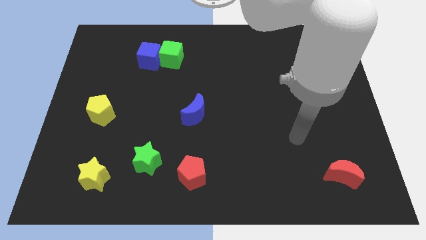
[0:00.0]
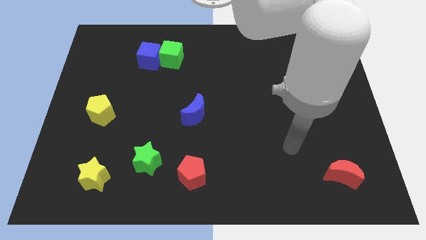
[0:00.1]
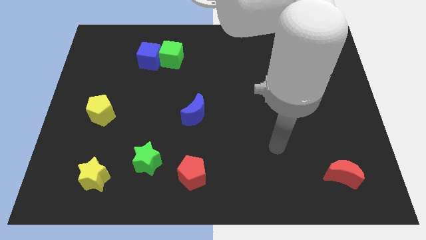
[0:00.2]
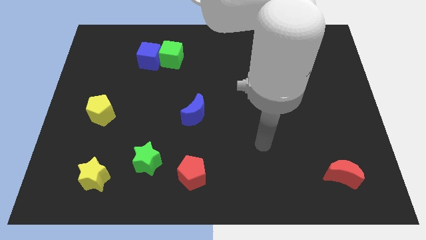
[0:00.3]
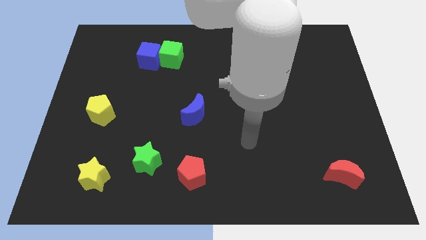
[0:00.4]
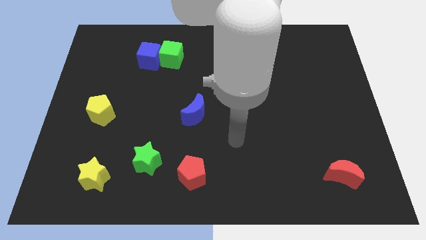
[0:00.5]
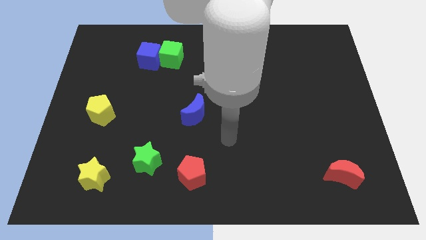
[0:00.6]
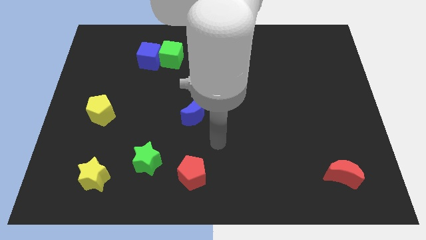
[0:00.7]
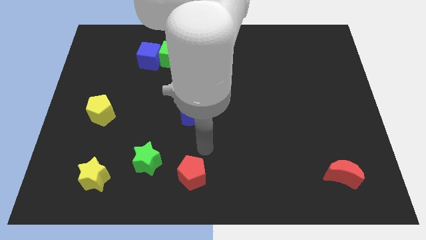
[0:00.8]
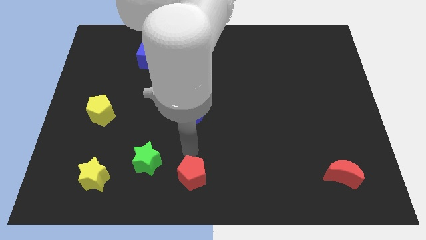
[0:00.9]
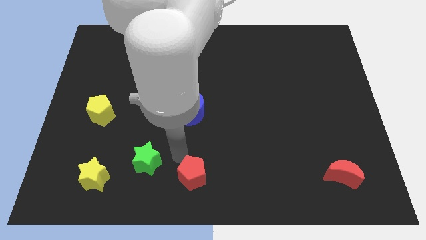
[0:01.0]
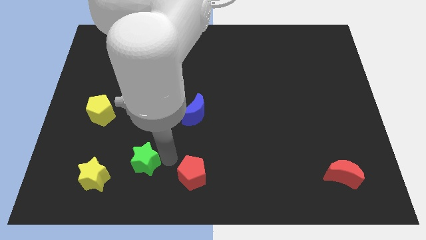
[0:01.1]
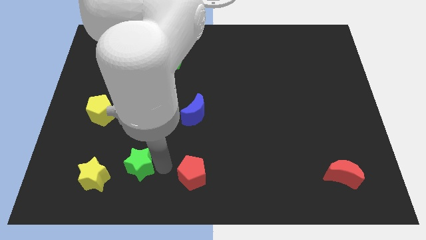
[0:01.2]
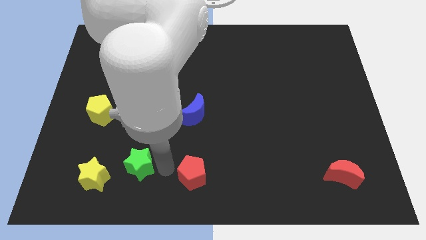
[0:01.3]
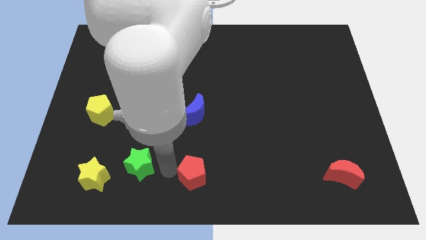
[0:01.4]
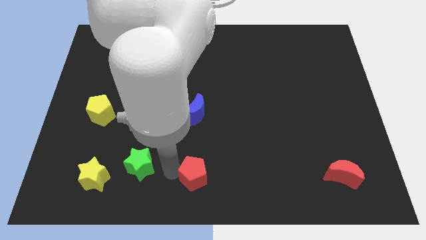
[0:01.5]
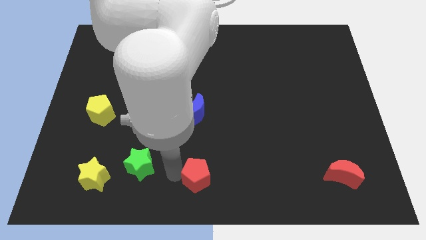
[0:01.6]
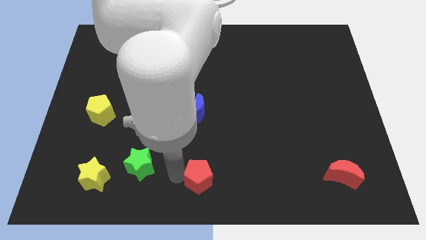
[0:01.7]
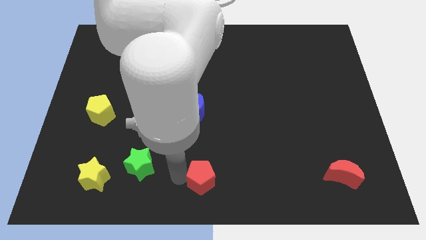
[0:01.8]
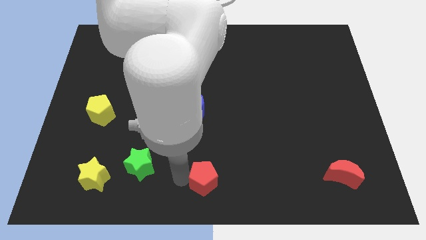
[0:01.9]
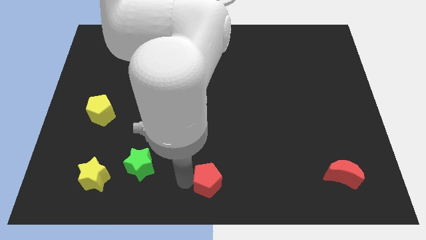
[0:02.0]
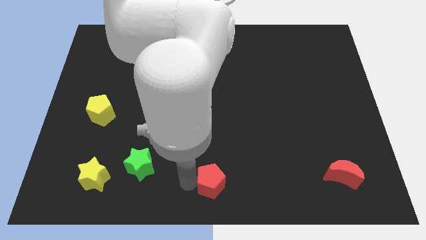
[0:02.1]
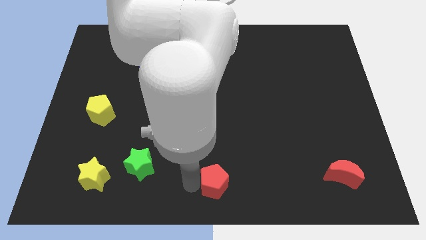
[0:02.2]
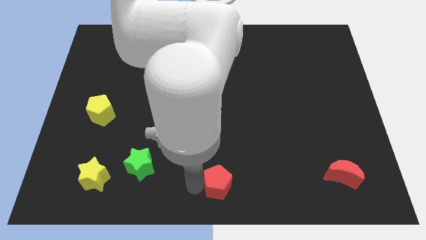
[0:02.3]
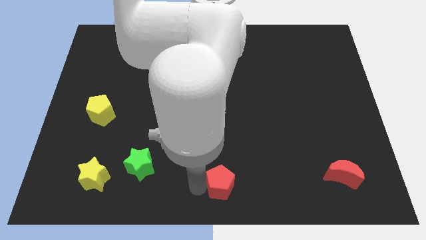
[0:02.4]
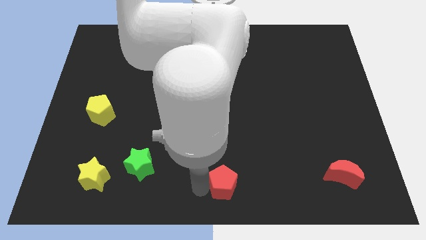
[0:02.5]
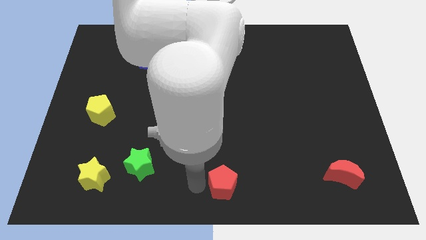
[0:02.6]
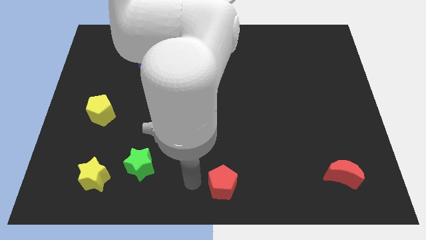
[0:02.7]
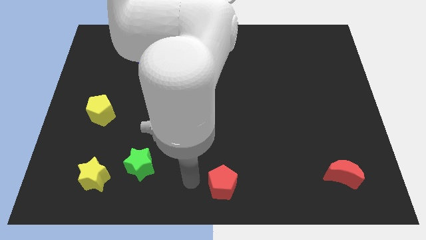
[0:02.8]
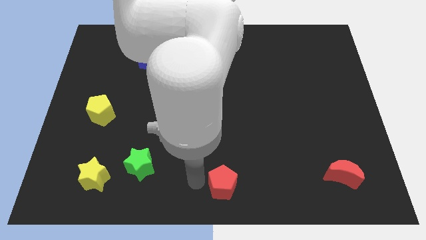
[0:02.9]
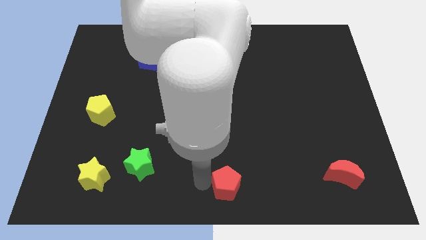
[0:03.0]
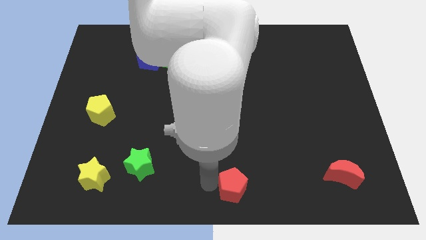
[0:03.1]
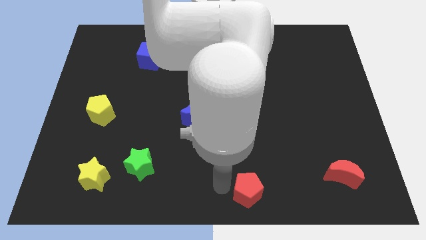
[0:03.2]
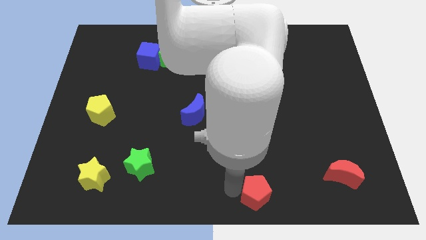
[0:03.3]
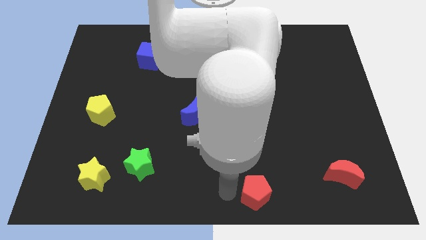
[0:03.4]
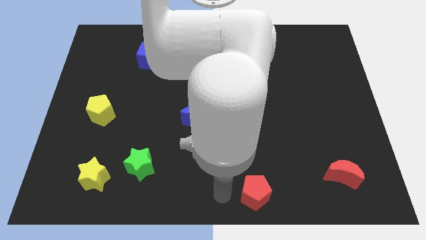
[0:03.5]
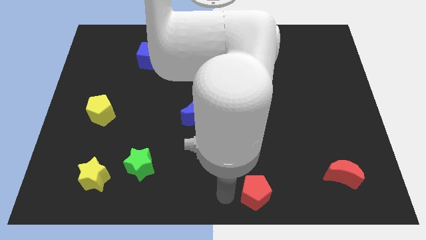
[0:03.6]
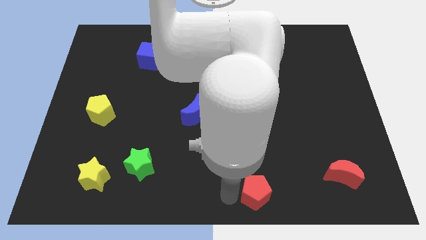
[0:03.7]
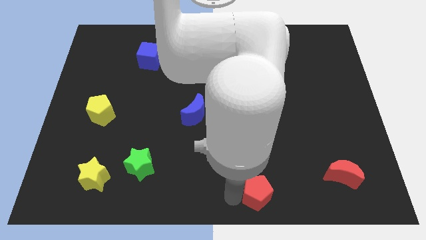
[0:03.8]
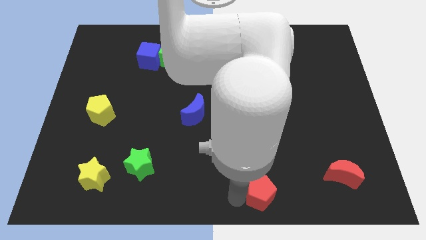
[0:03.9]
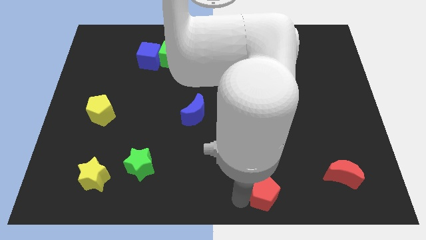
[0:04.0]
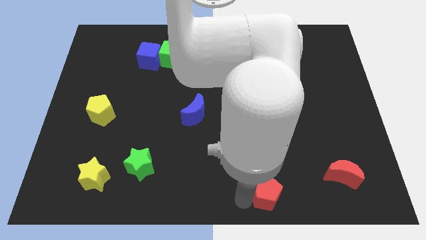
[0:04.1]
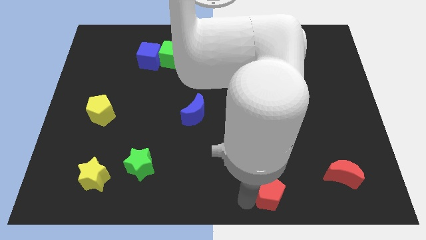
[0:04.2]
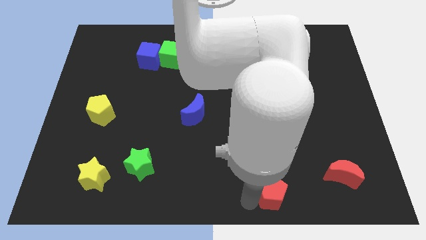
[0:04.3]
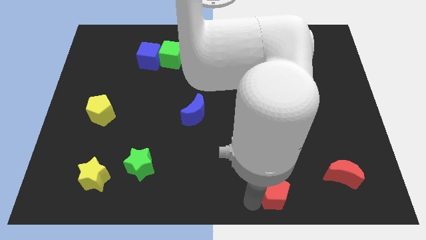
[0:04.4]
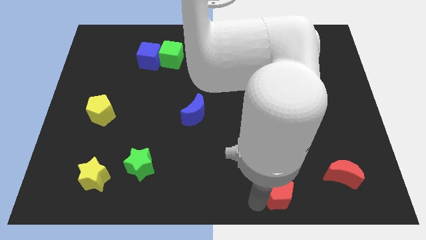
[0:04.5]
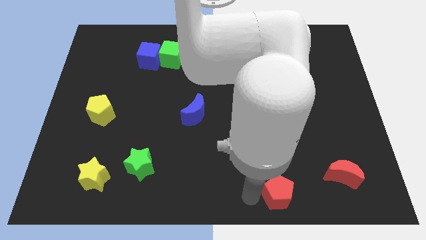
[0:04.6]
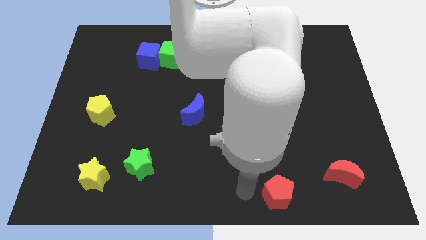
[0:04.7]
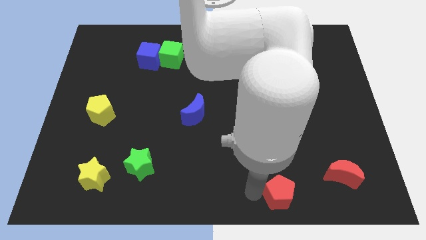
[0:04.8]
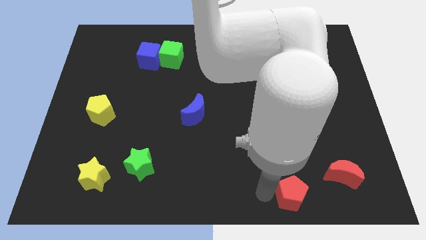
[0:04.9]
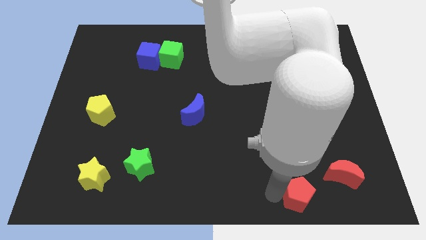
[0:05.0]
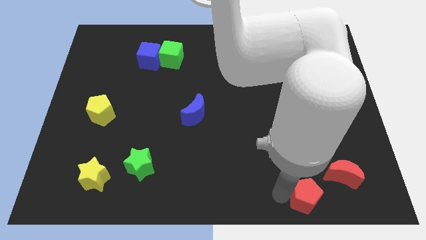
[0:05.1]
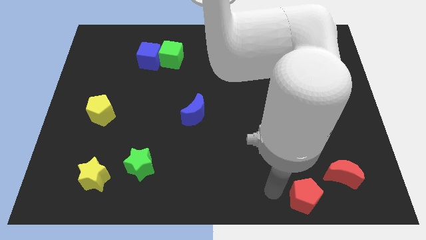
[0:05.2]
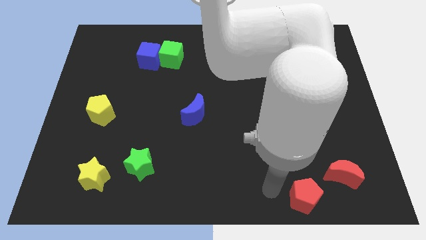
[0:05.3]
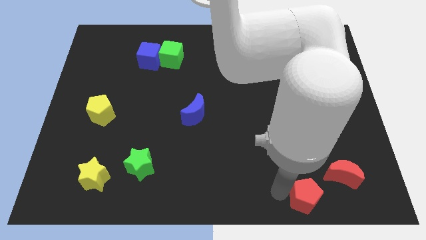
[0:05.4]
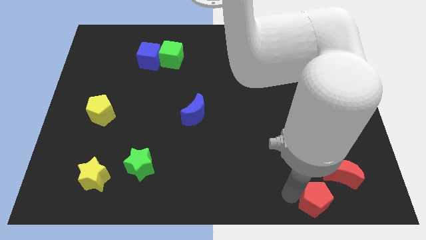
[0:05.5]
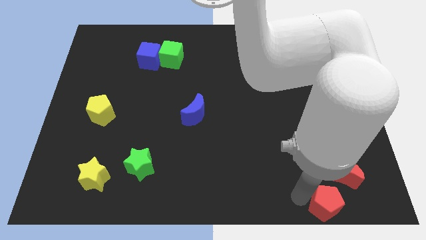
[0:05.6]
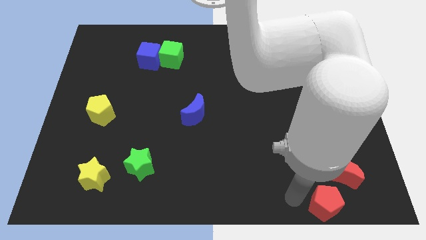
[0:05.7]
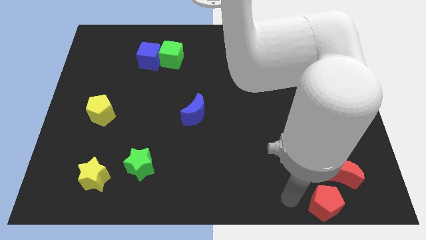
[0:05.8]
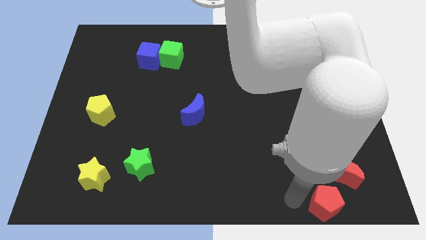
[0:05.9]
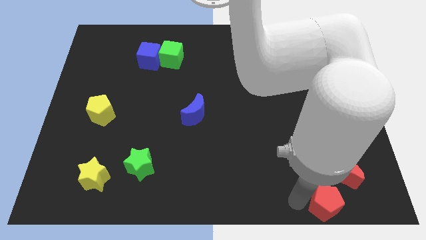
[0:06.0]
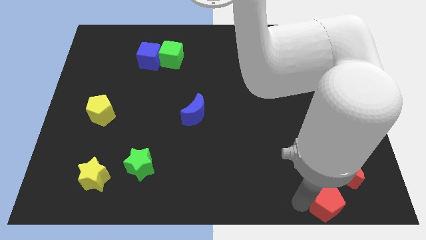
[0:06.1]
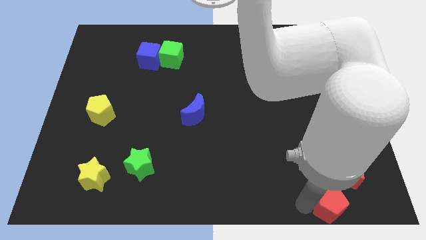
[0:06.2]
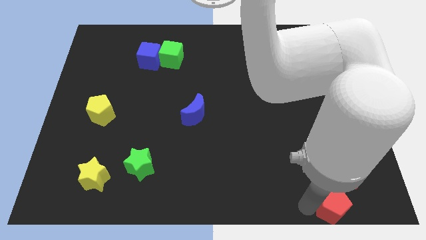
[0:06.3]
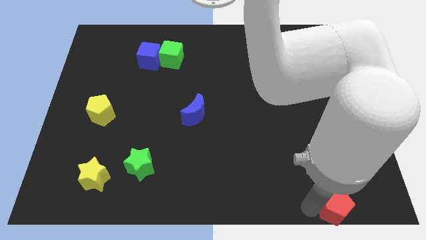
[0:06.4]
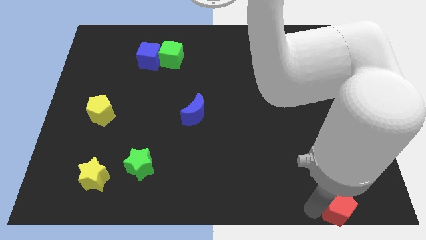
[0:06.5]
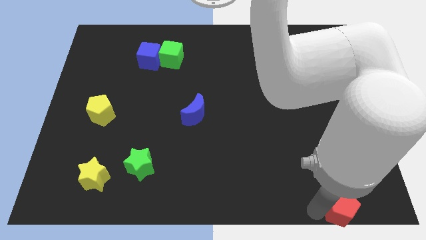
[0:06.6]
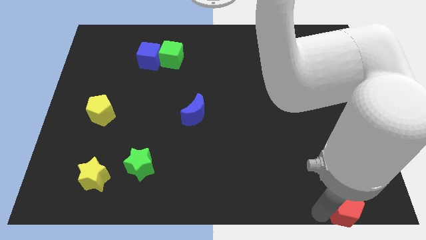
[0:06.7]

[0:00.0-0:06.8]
move the red pentagon to the bottom right of the board
